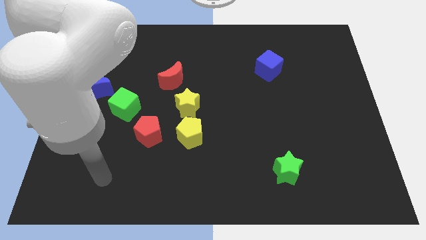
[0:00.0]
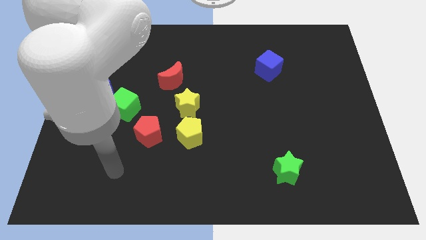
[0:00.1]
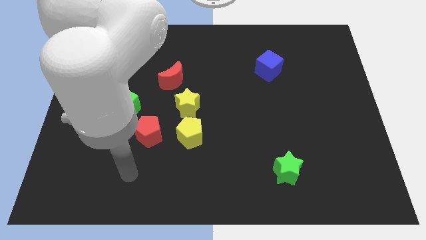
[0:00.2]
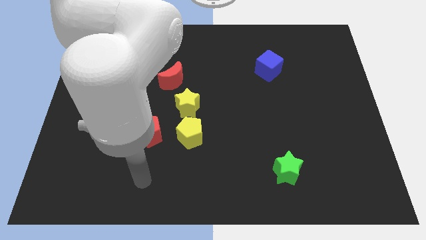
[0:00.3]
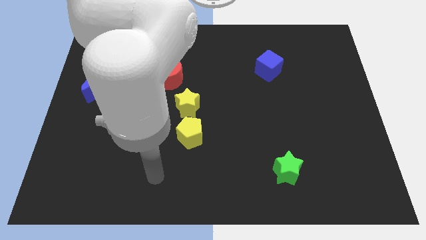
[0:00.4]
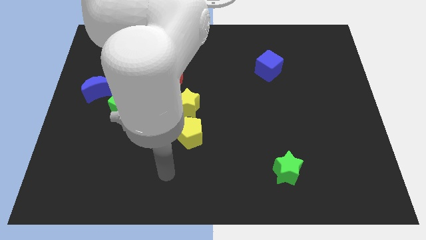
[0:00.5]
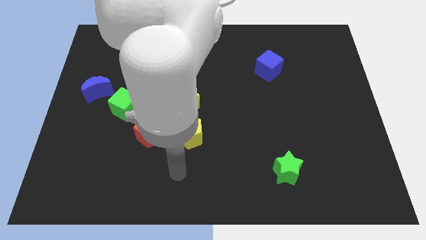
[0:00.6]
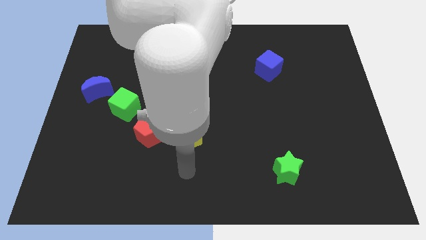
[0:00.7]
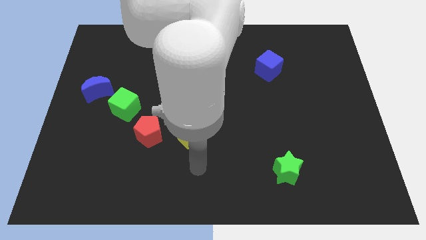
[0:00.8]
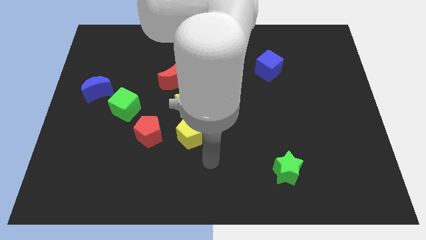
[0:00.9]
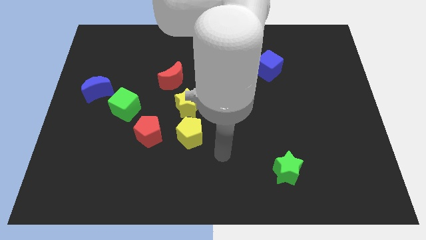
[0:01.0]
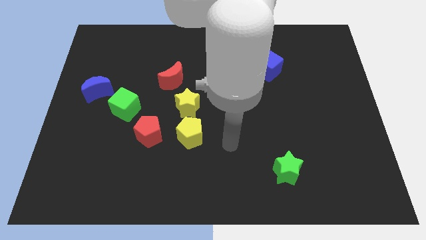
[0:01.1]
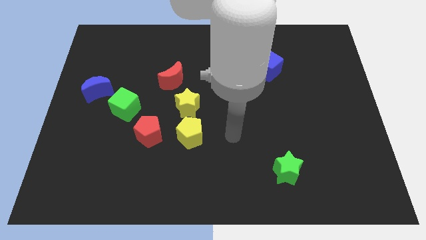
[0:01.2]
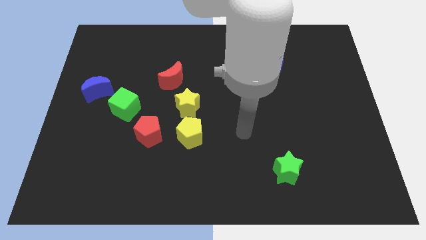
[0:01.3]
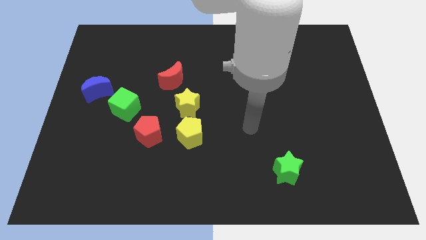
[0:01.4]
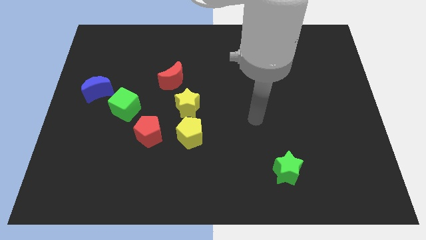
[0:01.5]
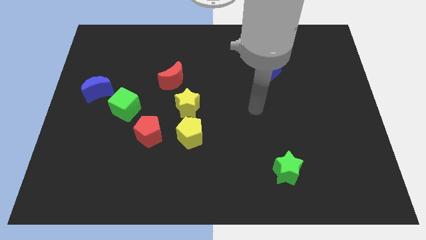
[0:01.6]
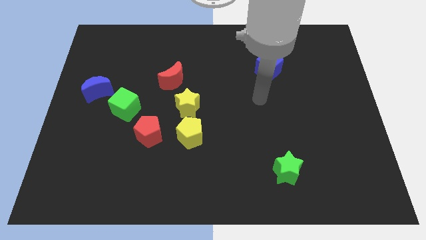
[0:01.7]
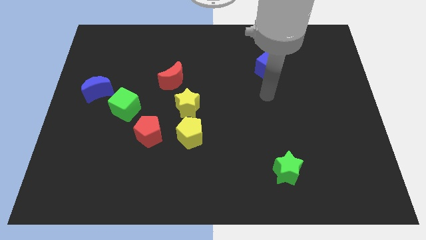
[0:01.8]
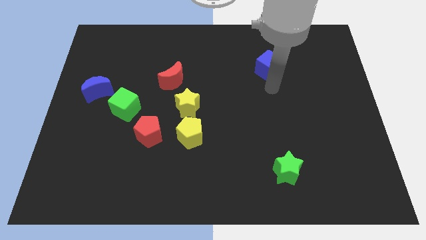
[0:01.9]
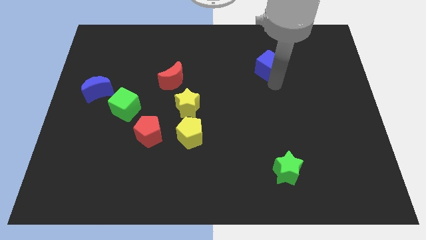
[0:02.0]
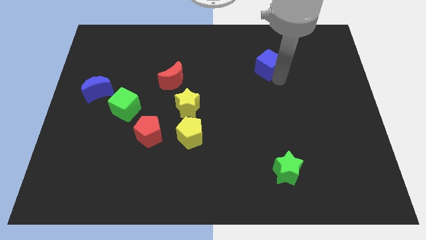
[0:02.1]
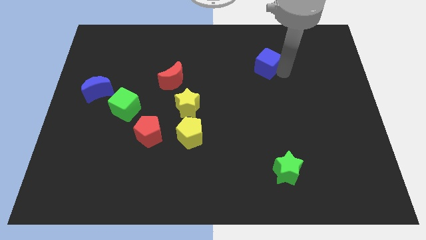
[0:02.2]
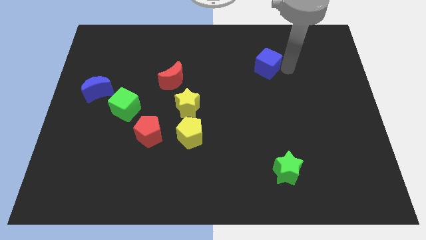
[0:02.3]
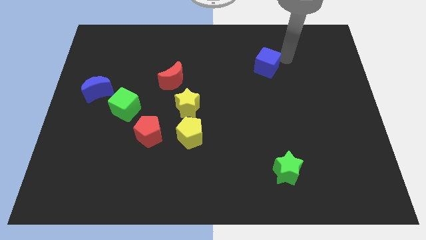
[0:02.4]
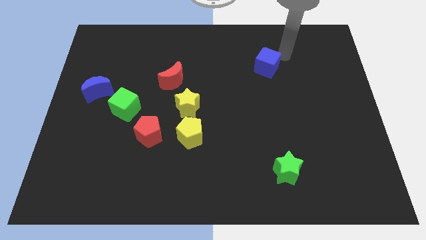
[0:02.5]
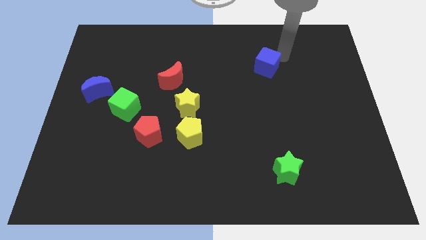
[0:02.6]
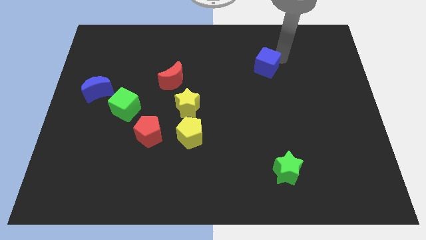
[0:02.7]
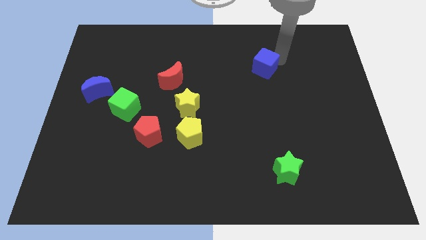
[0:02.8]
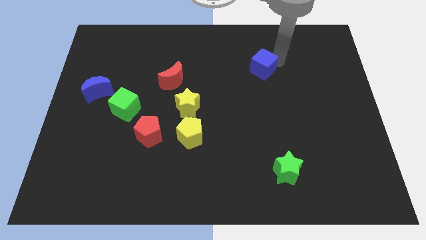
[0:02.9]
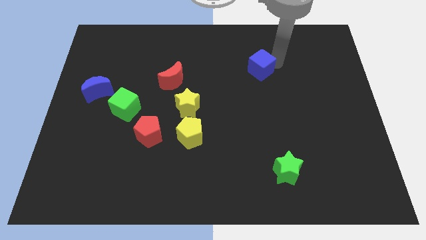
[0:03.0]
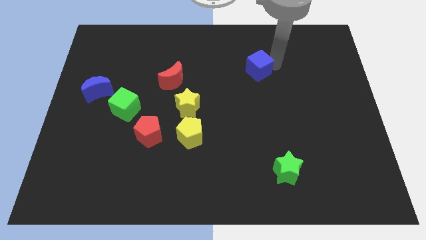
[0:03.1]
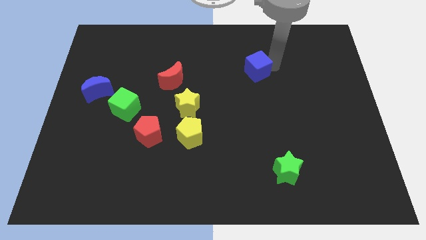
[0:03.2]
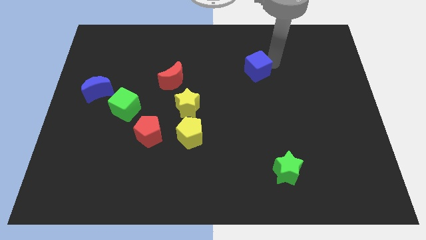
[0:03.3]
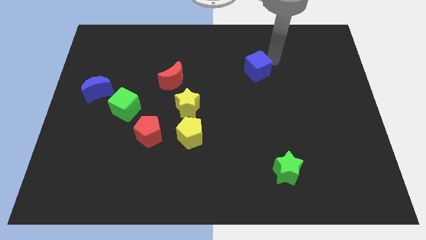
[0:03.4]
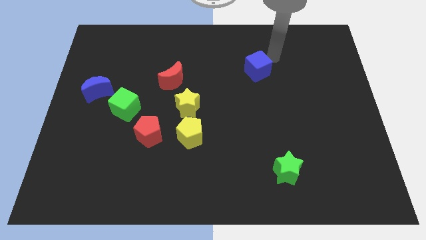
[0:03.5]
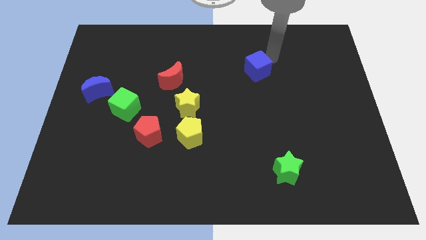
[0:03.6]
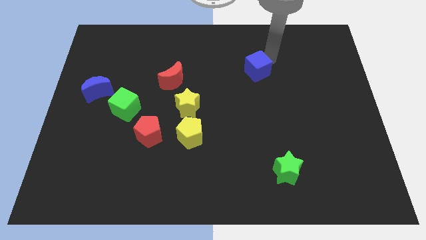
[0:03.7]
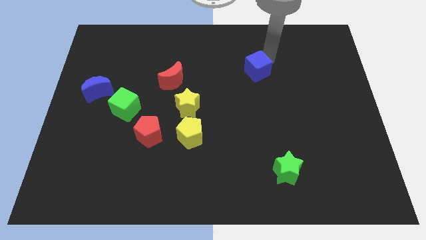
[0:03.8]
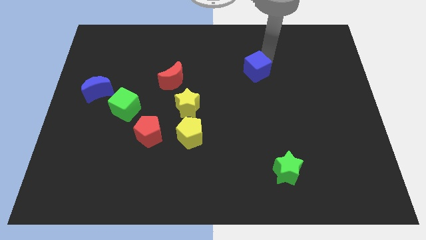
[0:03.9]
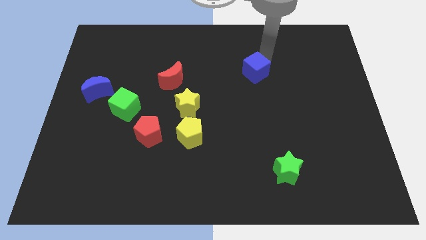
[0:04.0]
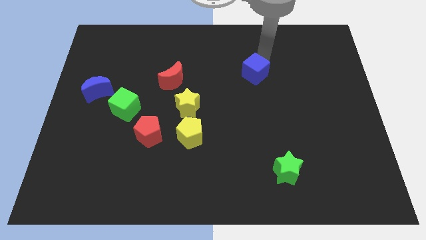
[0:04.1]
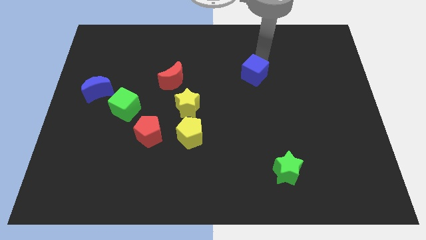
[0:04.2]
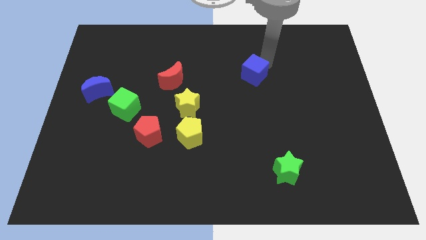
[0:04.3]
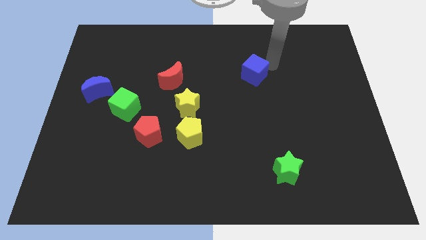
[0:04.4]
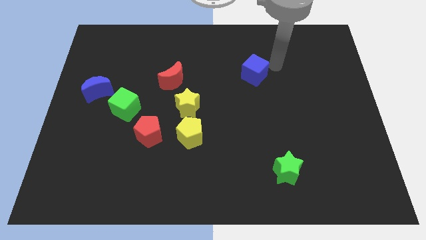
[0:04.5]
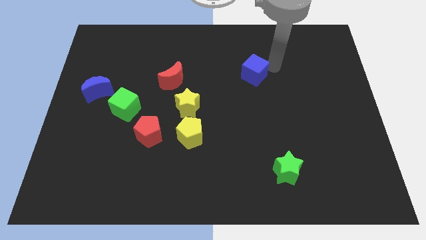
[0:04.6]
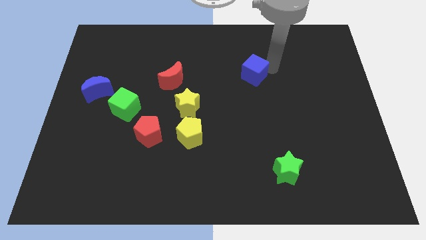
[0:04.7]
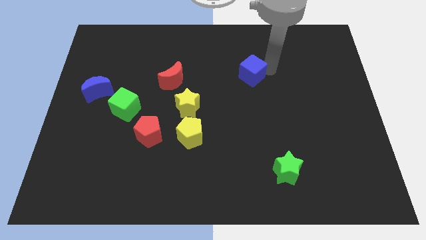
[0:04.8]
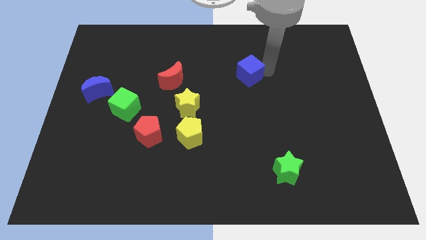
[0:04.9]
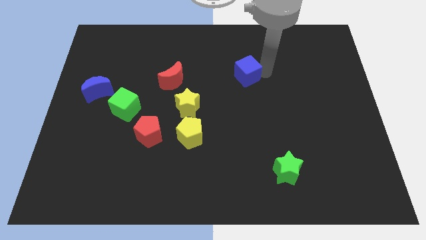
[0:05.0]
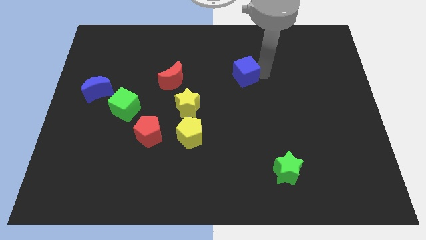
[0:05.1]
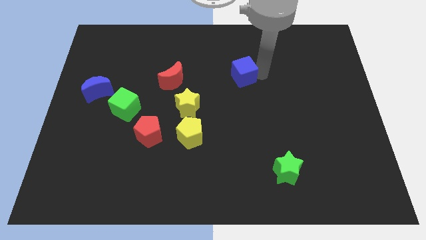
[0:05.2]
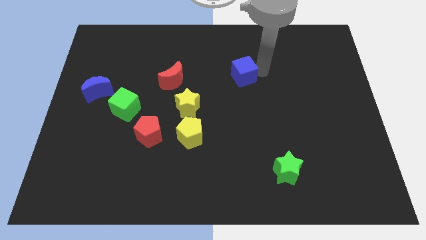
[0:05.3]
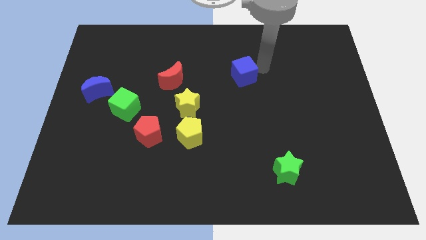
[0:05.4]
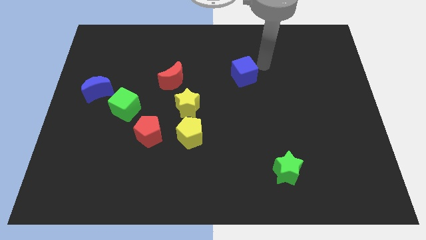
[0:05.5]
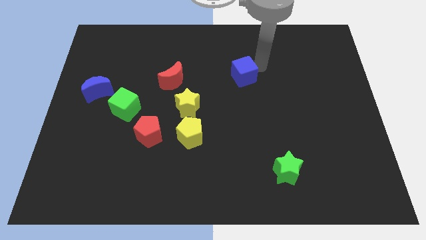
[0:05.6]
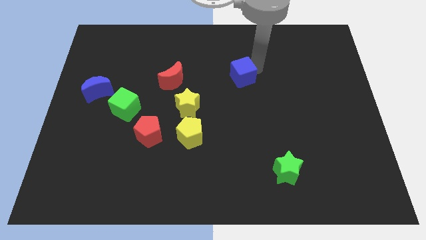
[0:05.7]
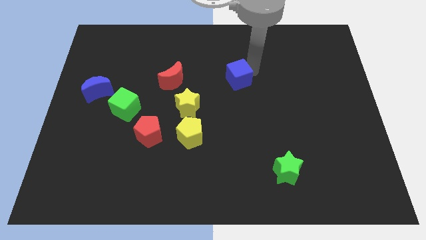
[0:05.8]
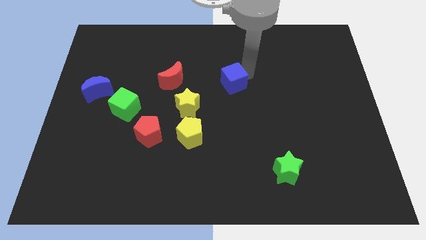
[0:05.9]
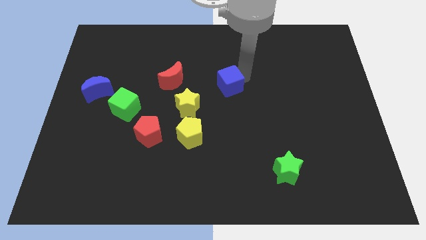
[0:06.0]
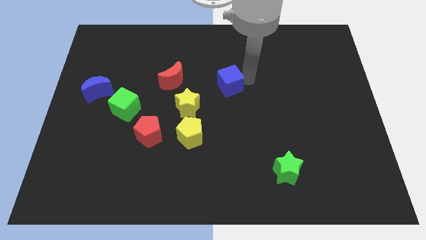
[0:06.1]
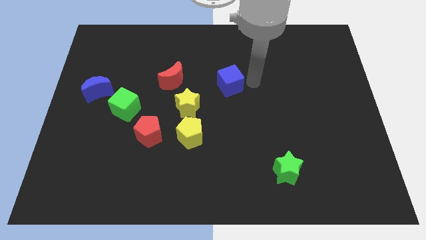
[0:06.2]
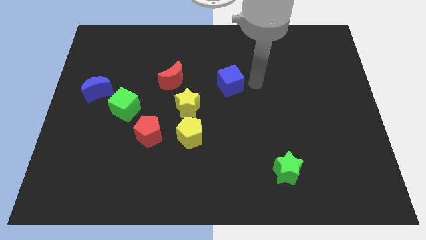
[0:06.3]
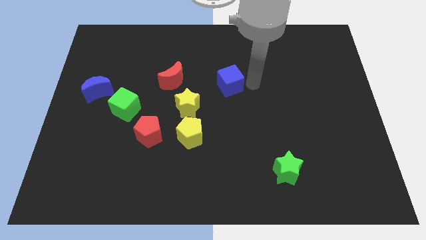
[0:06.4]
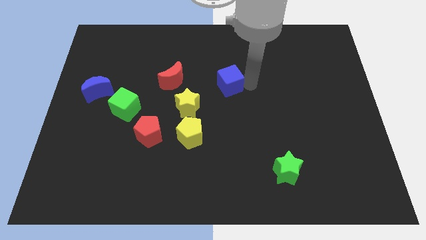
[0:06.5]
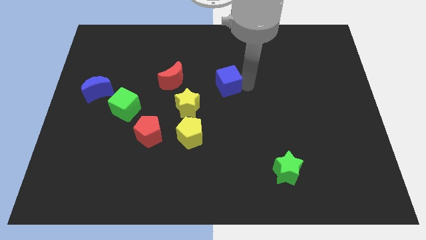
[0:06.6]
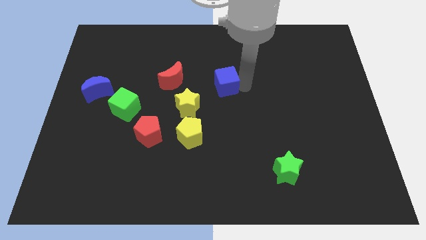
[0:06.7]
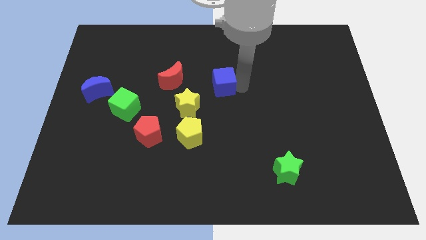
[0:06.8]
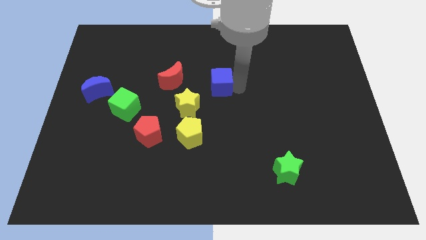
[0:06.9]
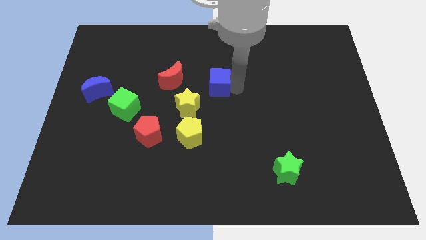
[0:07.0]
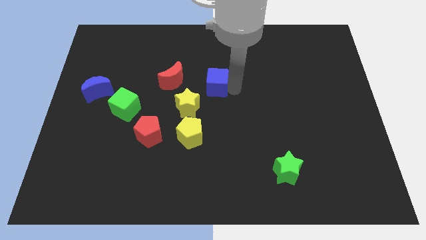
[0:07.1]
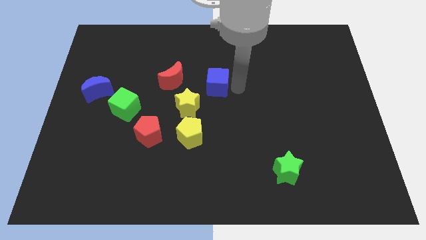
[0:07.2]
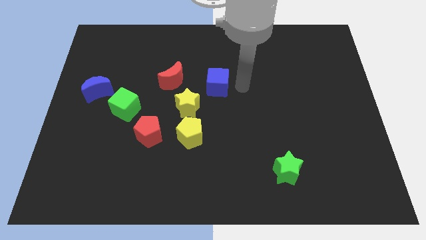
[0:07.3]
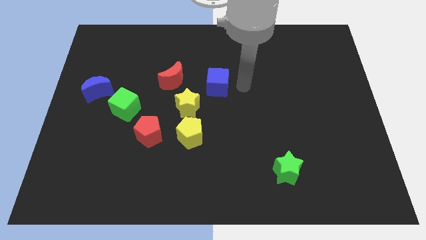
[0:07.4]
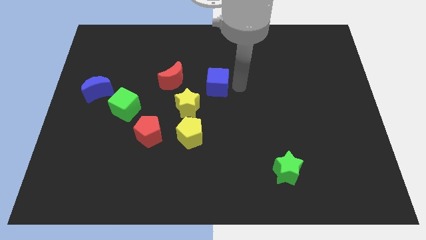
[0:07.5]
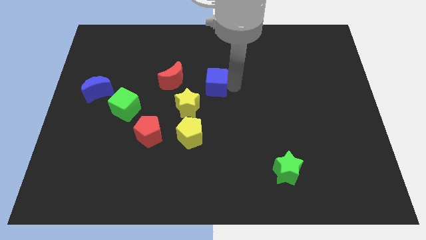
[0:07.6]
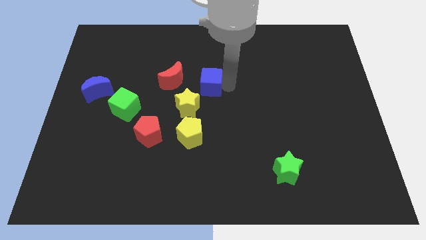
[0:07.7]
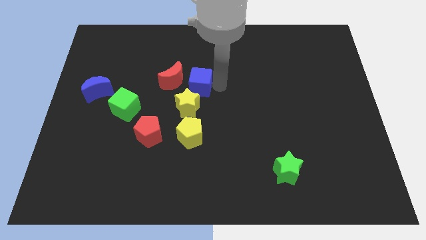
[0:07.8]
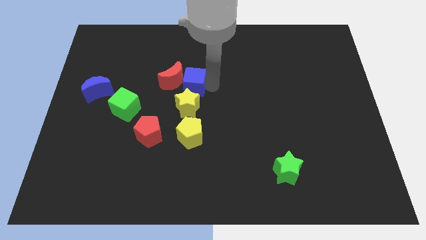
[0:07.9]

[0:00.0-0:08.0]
push the blue cube close to the red moon
